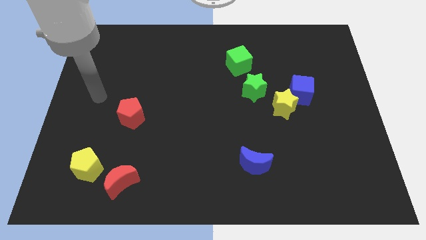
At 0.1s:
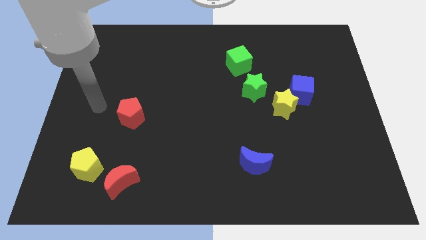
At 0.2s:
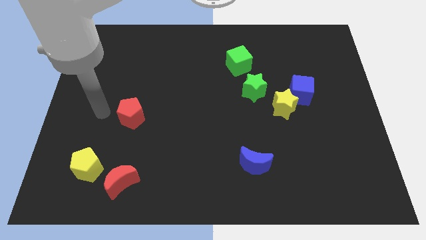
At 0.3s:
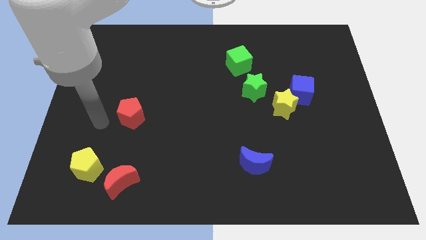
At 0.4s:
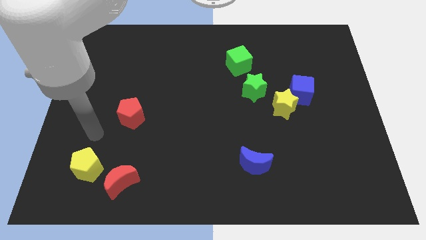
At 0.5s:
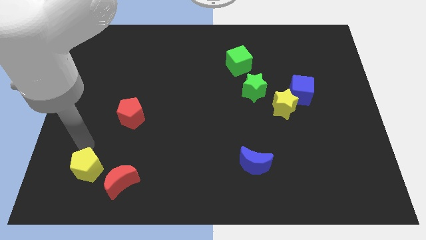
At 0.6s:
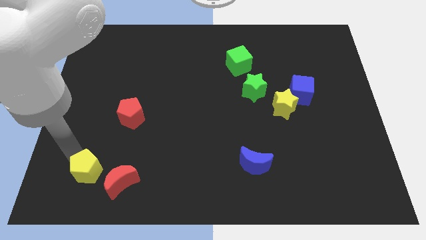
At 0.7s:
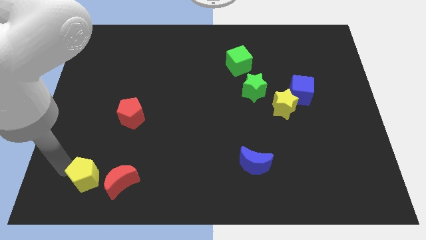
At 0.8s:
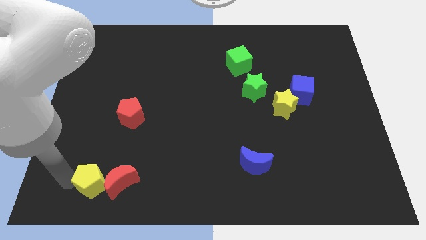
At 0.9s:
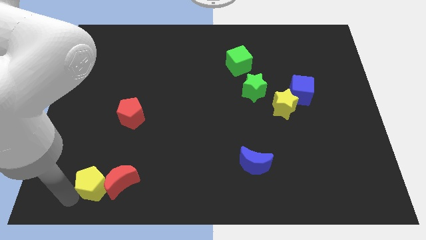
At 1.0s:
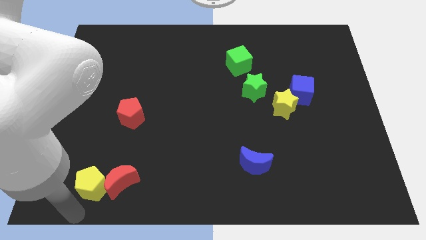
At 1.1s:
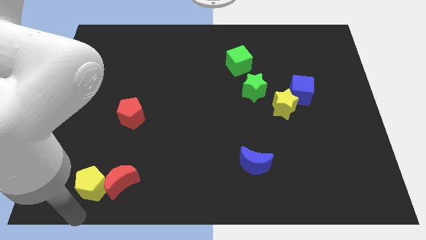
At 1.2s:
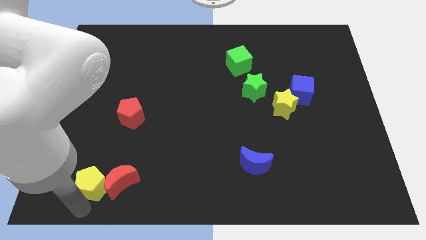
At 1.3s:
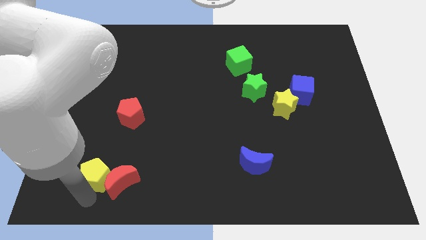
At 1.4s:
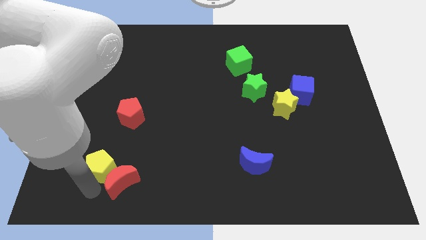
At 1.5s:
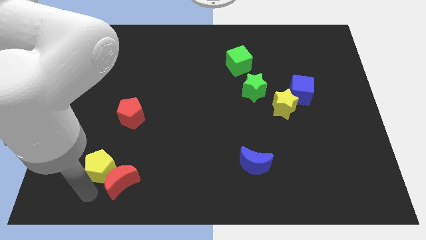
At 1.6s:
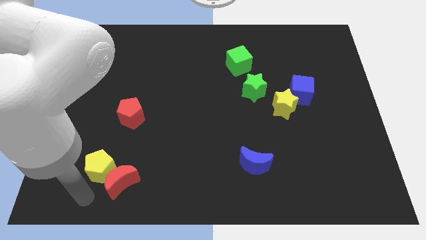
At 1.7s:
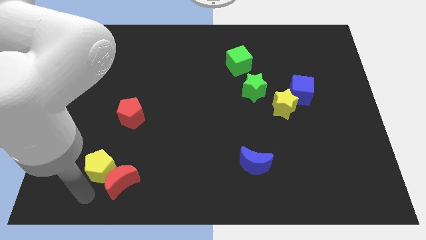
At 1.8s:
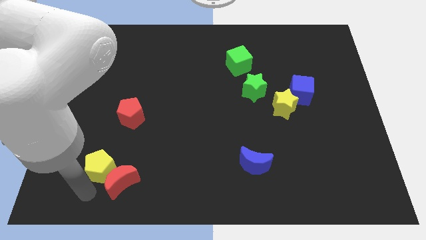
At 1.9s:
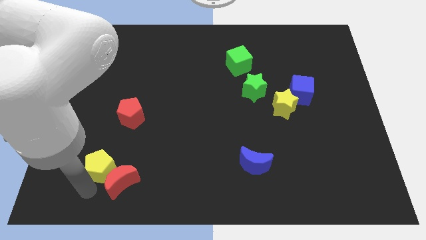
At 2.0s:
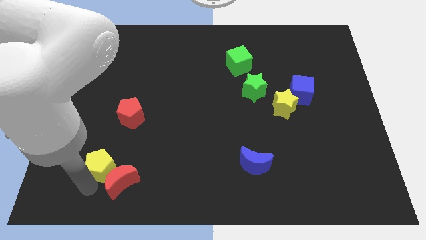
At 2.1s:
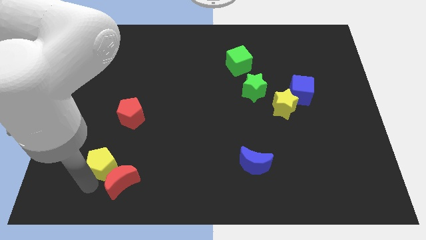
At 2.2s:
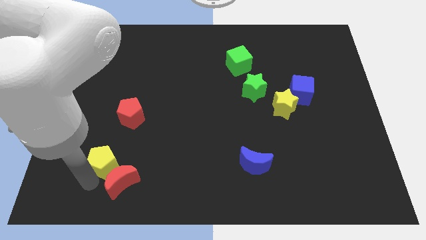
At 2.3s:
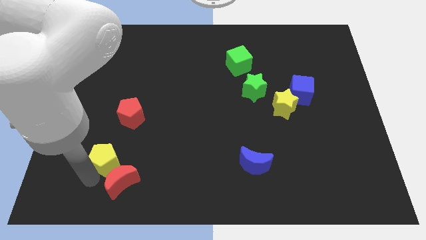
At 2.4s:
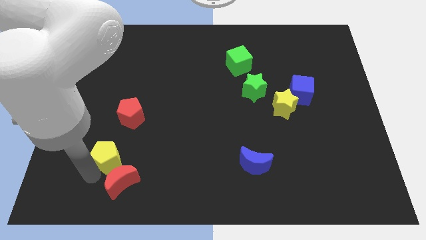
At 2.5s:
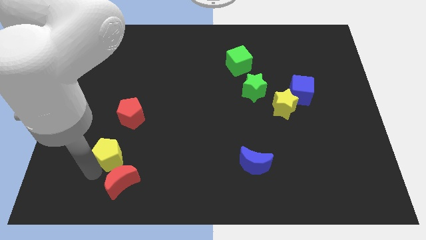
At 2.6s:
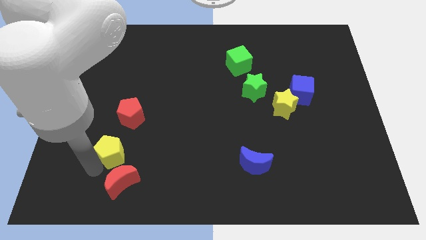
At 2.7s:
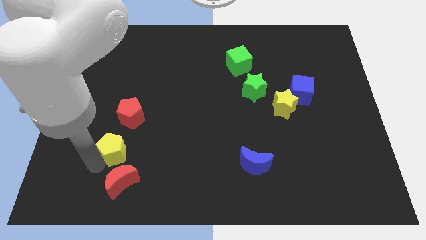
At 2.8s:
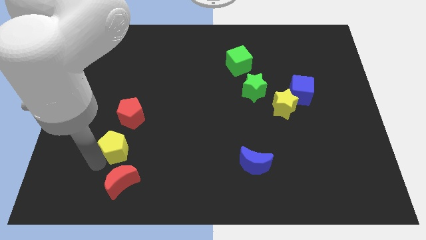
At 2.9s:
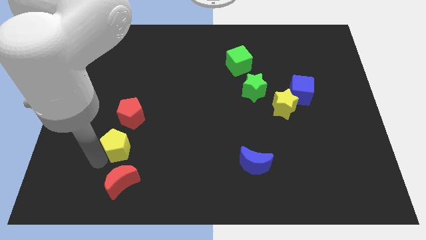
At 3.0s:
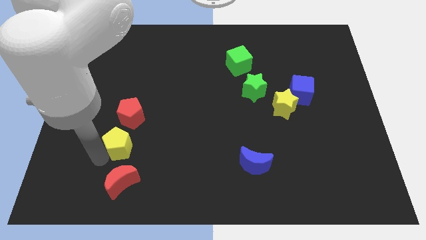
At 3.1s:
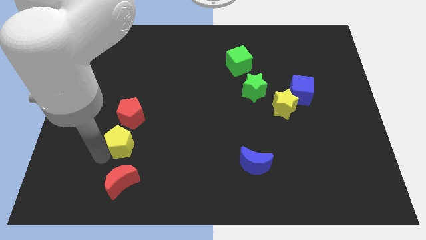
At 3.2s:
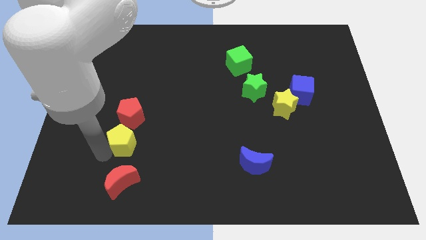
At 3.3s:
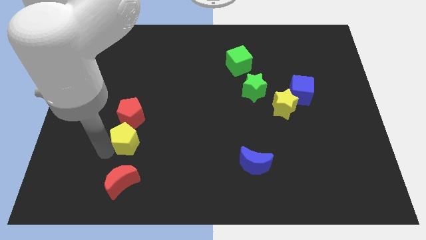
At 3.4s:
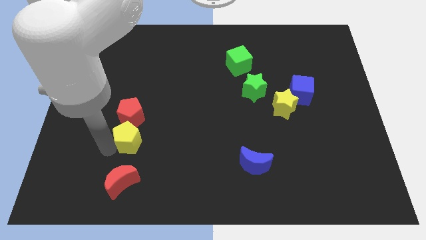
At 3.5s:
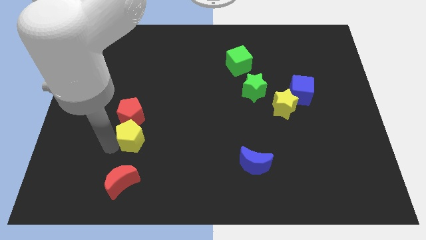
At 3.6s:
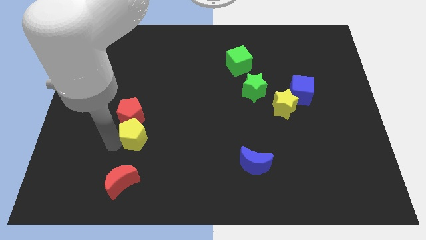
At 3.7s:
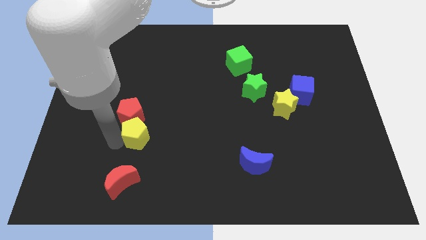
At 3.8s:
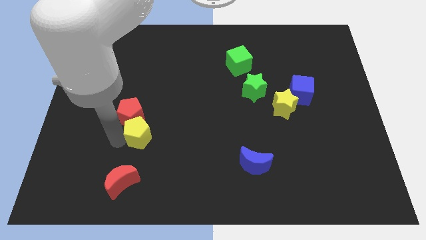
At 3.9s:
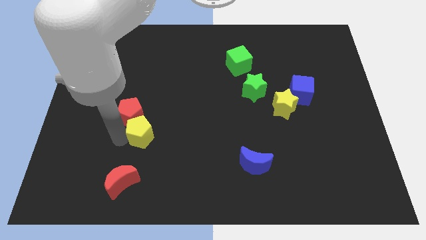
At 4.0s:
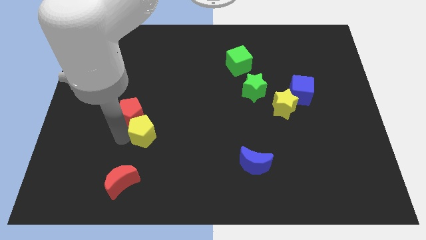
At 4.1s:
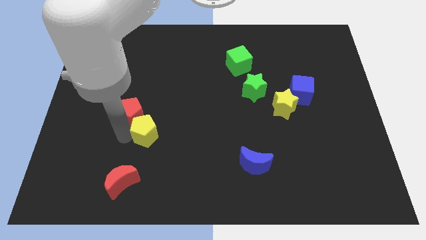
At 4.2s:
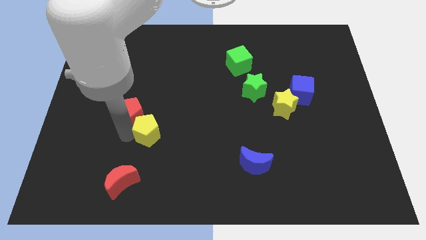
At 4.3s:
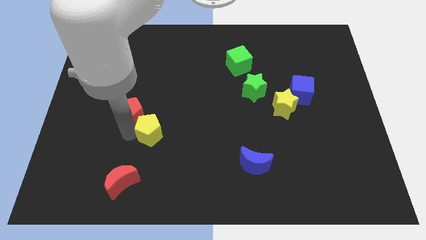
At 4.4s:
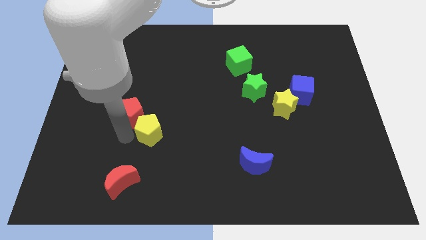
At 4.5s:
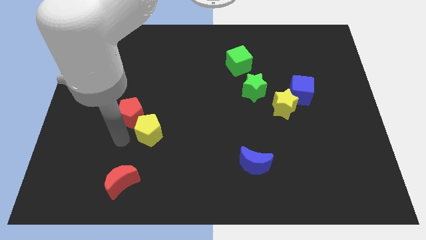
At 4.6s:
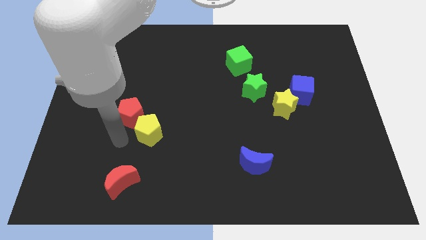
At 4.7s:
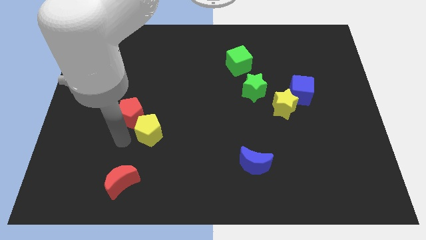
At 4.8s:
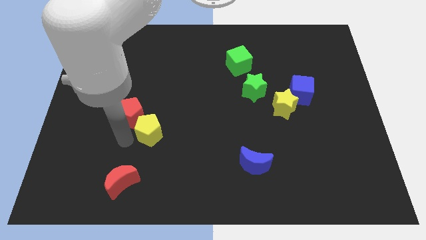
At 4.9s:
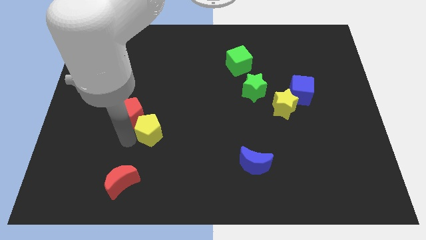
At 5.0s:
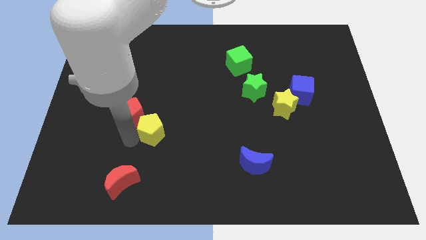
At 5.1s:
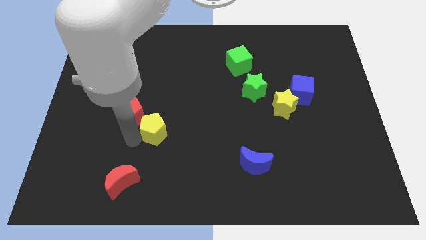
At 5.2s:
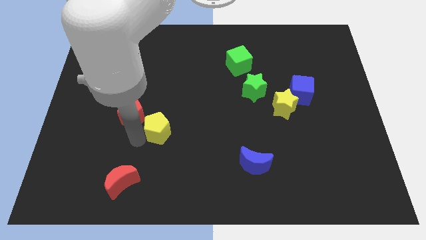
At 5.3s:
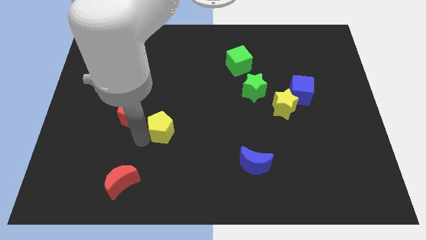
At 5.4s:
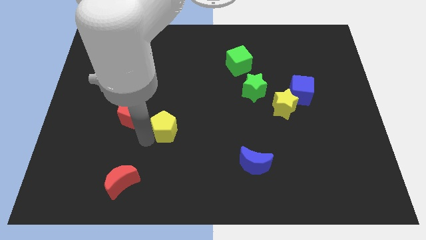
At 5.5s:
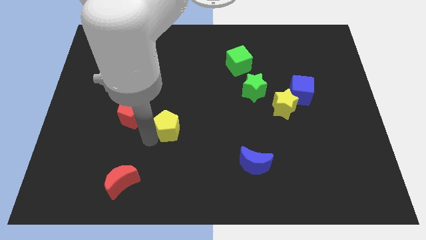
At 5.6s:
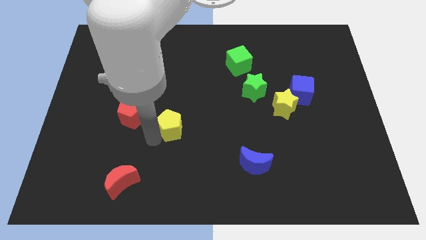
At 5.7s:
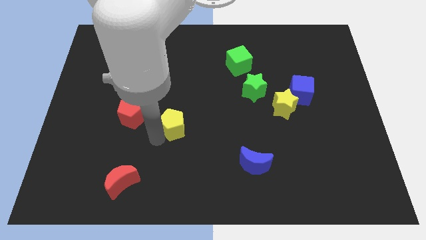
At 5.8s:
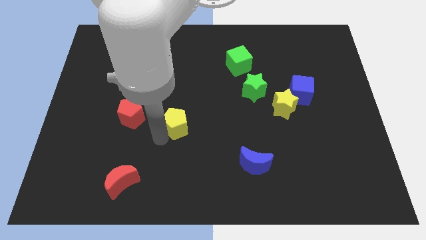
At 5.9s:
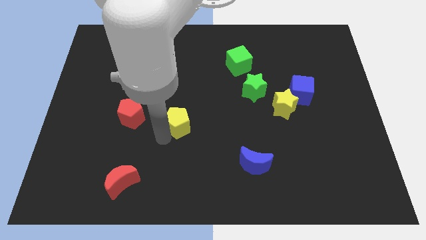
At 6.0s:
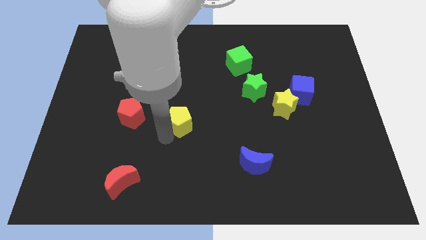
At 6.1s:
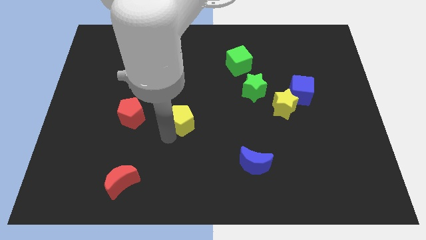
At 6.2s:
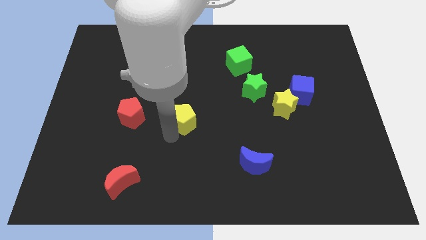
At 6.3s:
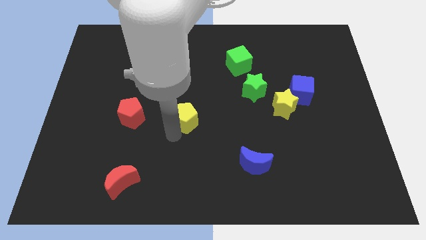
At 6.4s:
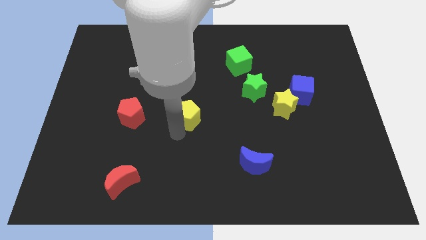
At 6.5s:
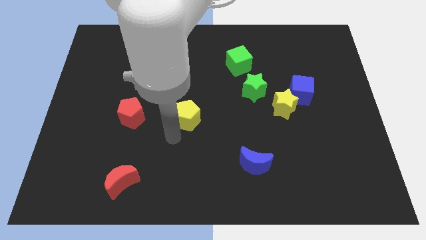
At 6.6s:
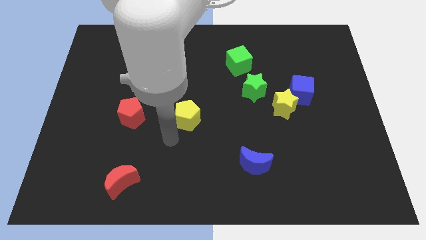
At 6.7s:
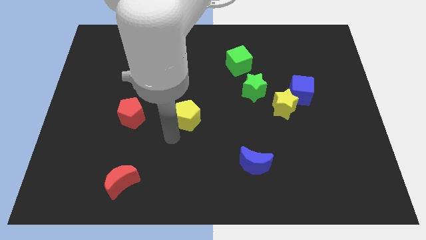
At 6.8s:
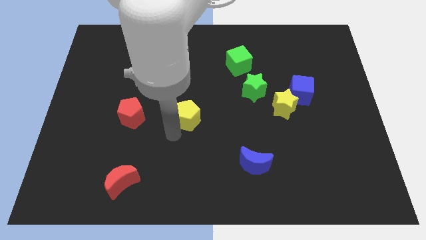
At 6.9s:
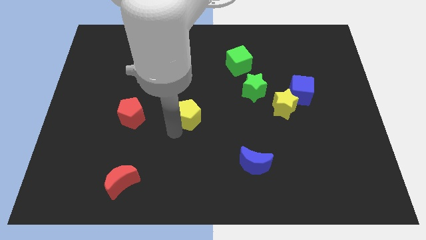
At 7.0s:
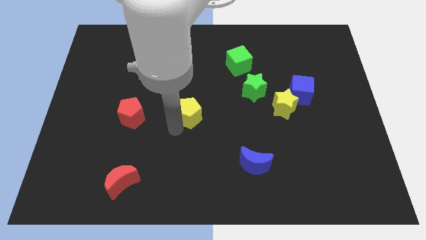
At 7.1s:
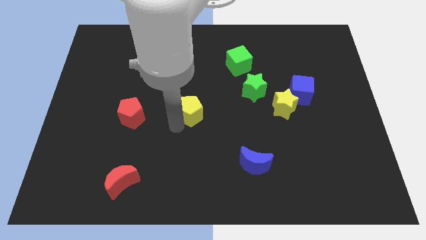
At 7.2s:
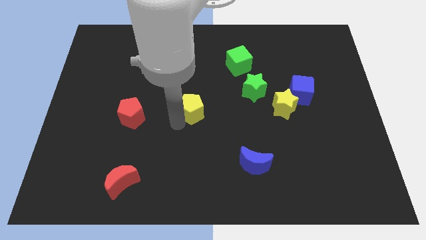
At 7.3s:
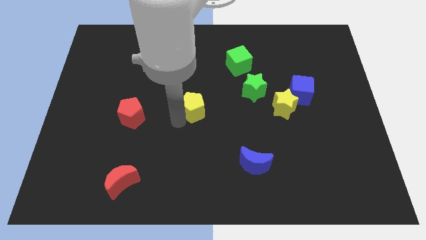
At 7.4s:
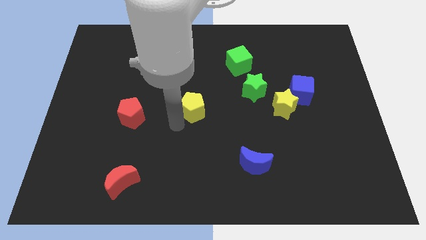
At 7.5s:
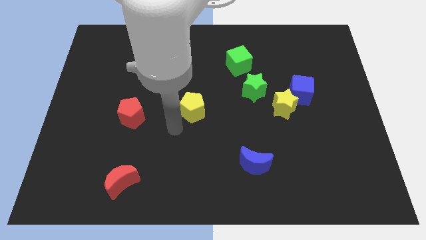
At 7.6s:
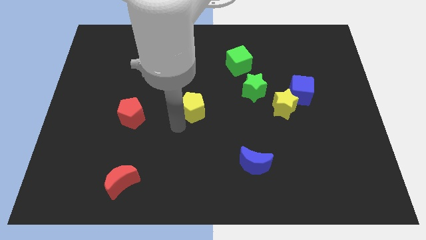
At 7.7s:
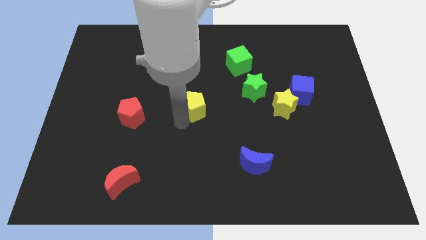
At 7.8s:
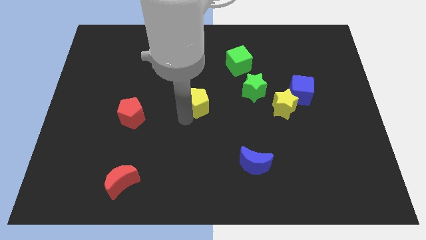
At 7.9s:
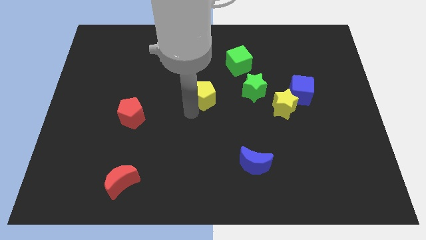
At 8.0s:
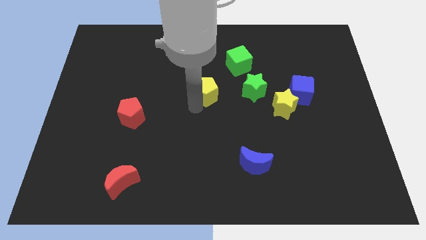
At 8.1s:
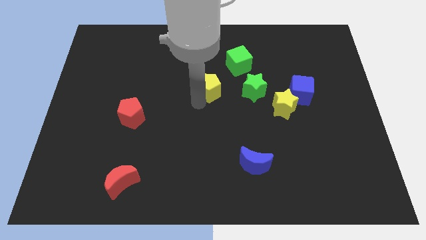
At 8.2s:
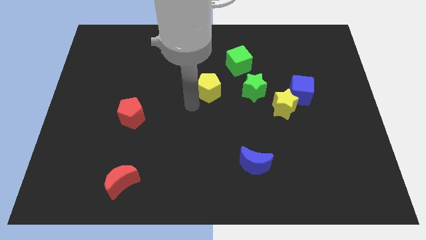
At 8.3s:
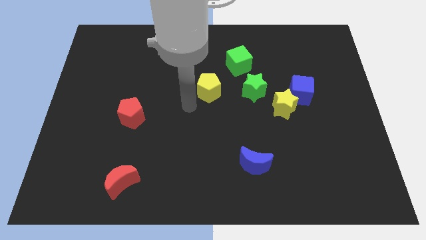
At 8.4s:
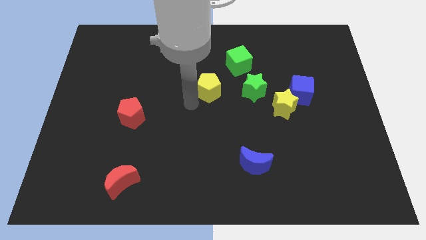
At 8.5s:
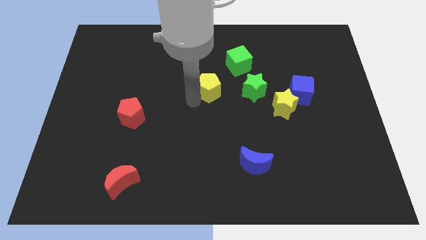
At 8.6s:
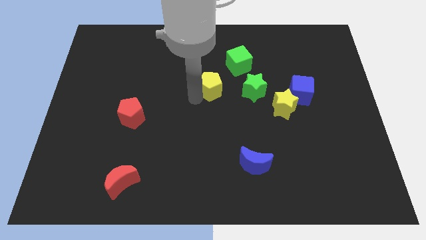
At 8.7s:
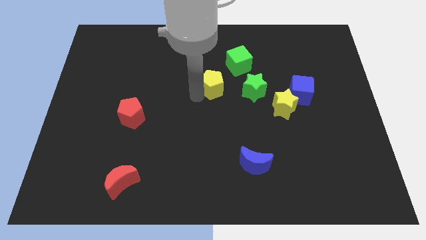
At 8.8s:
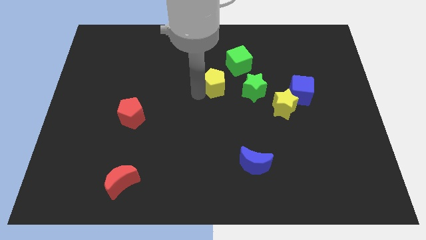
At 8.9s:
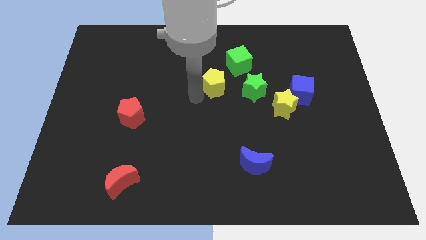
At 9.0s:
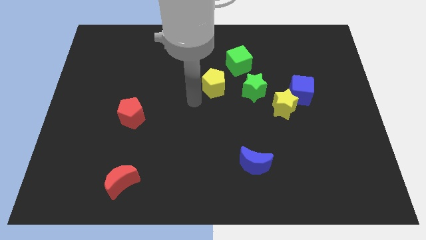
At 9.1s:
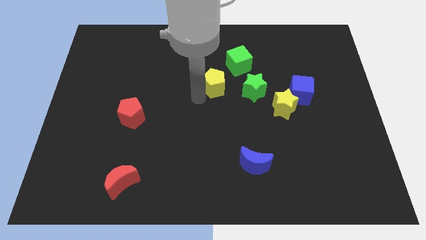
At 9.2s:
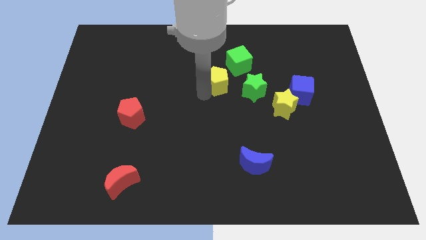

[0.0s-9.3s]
push the yellow pentagon to the top left side of the green star
